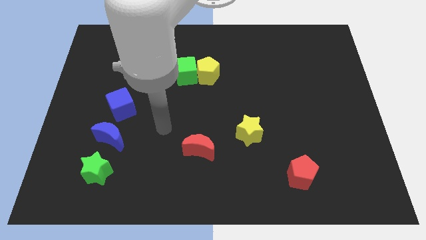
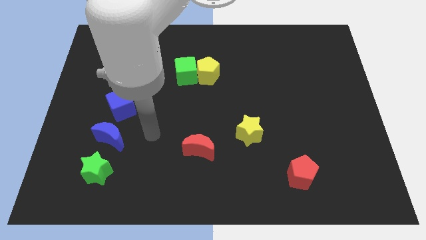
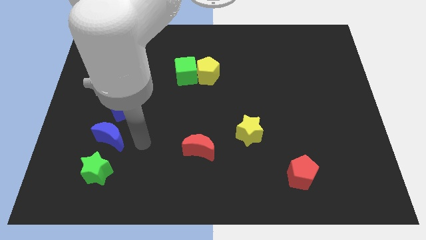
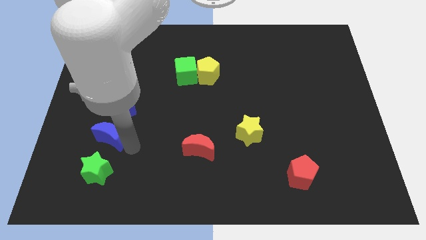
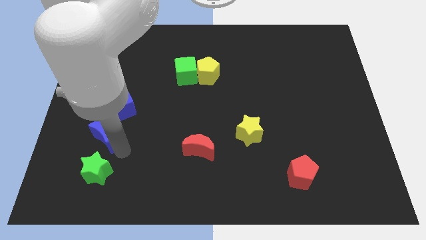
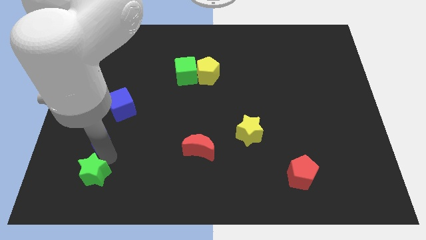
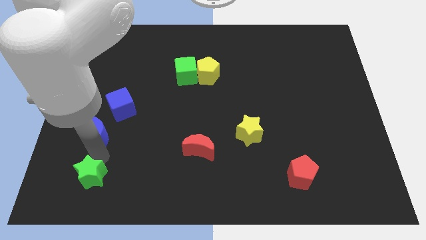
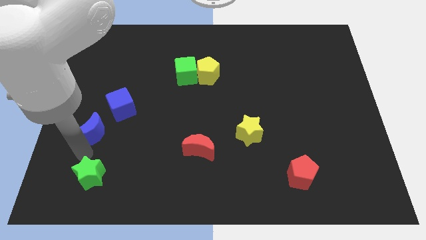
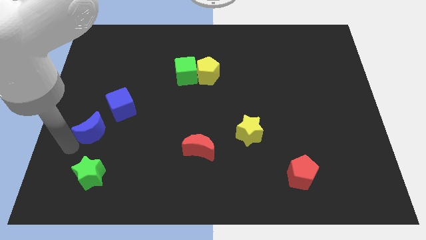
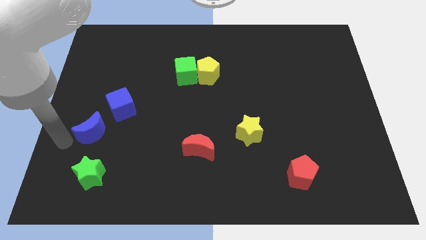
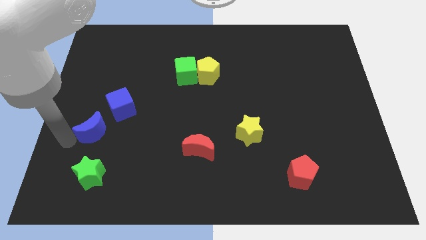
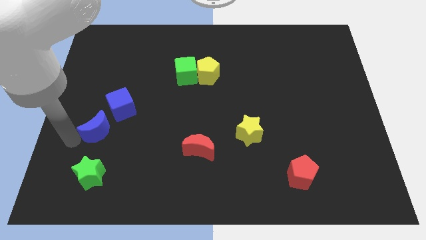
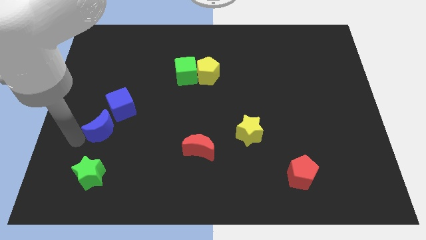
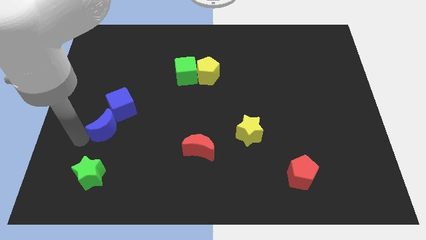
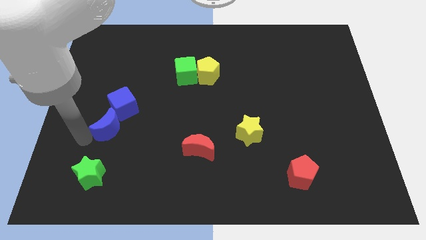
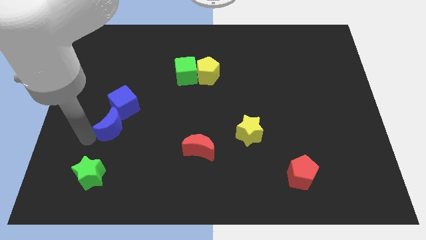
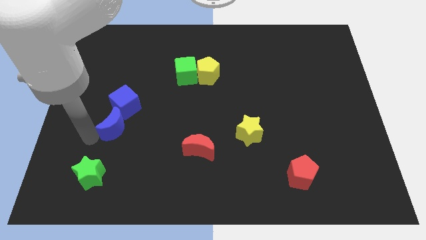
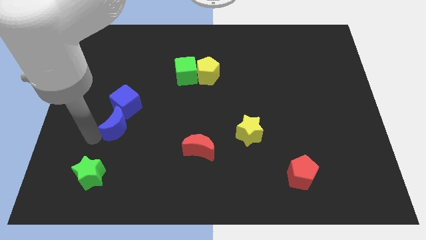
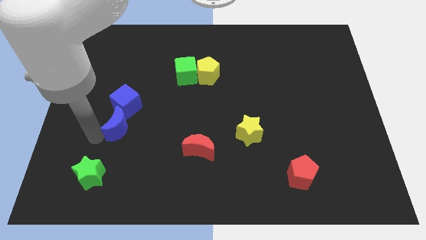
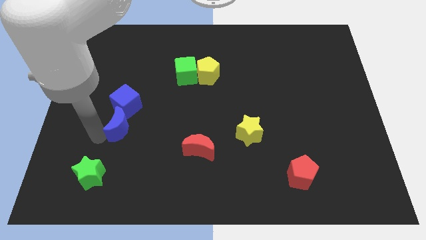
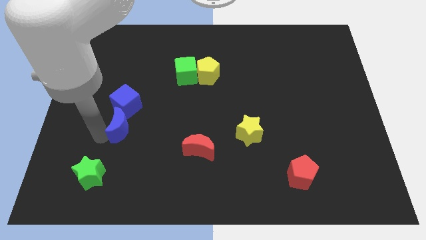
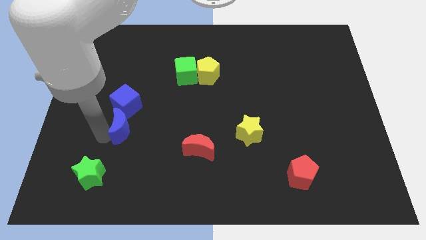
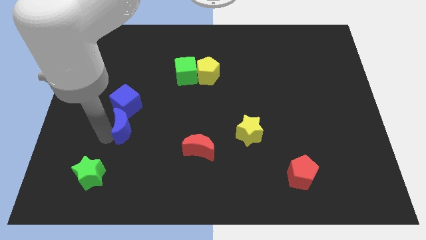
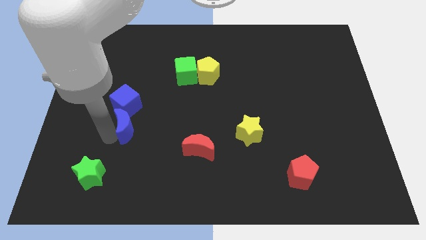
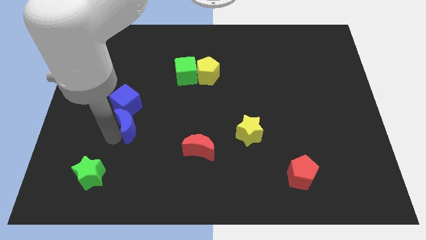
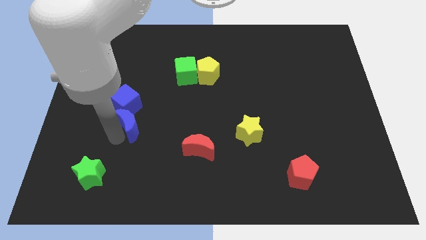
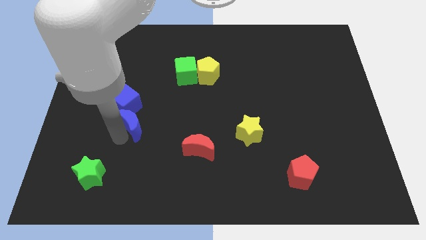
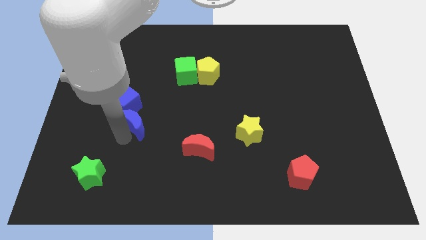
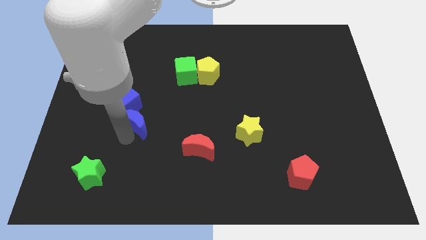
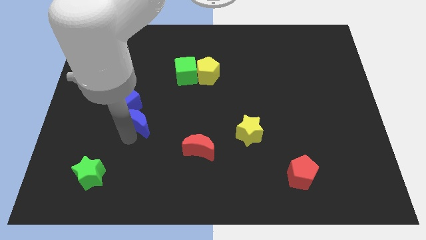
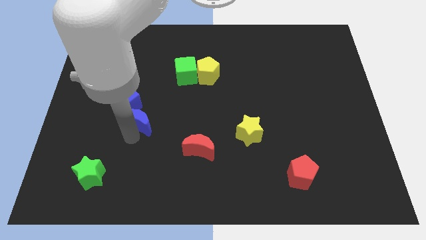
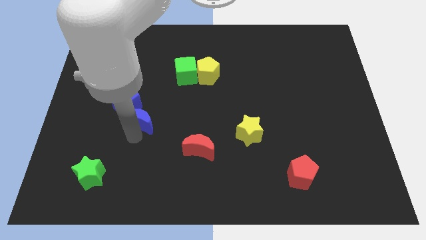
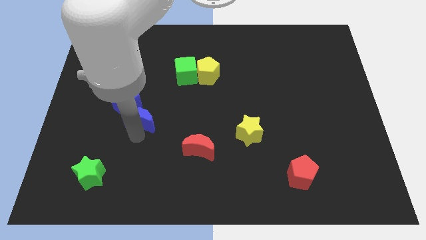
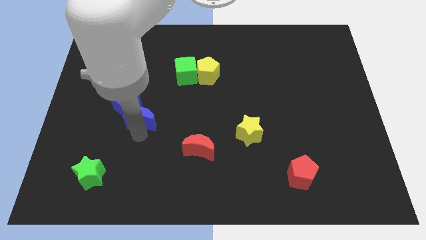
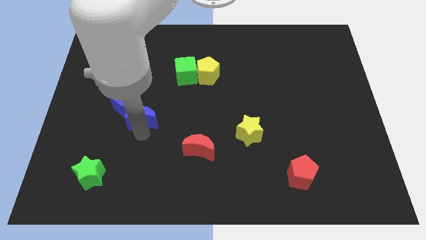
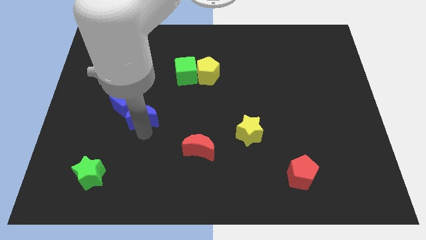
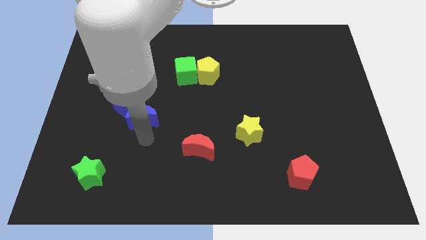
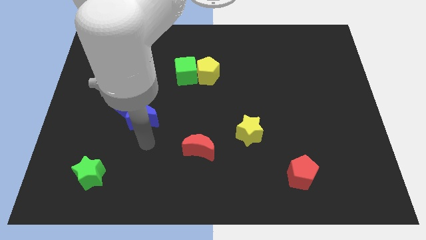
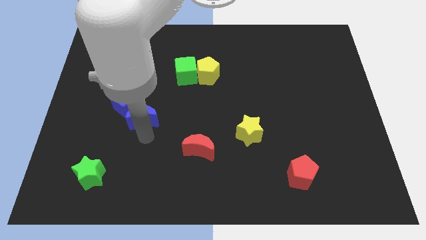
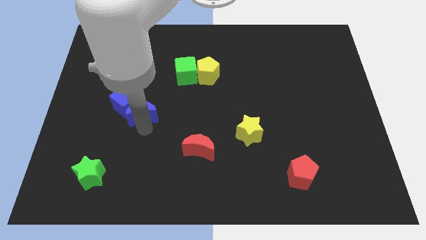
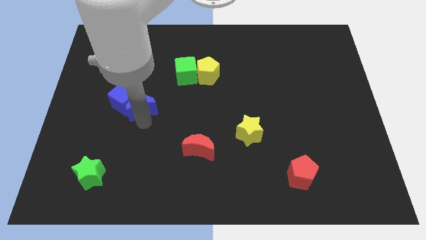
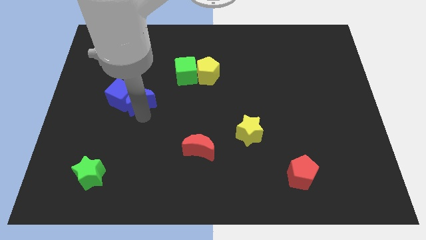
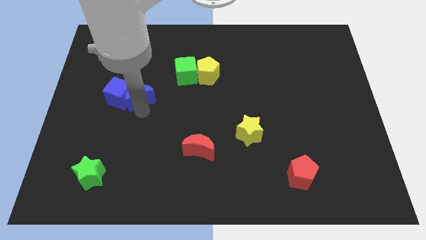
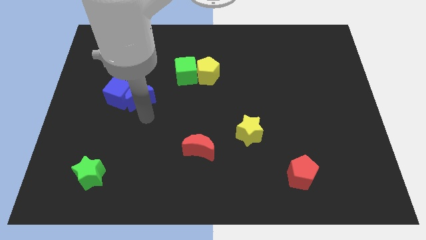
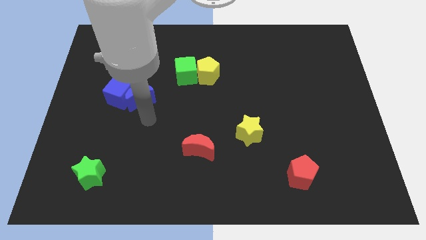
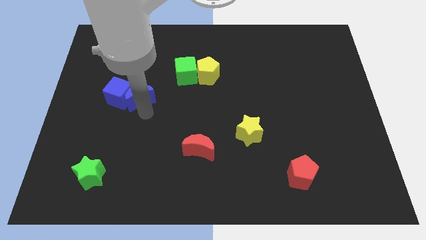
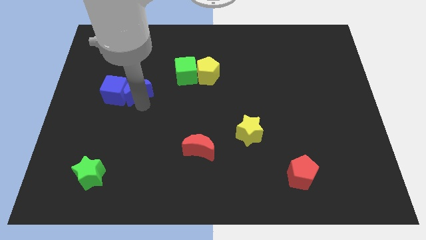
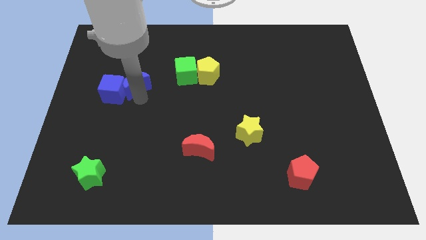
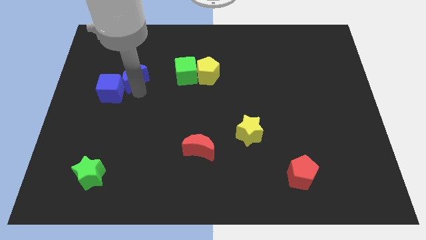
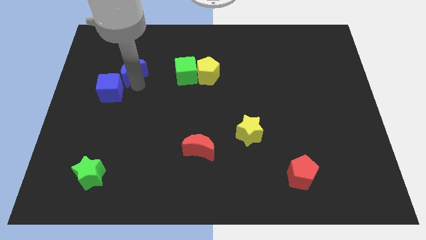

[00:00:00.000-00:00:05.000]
put the blue moon to the top of the blue cube

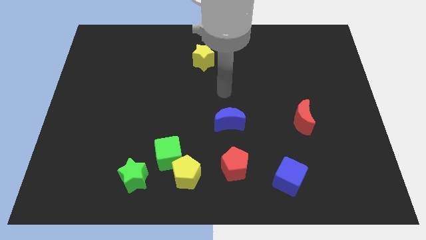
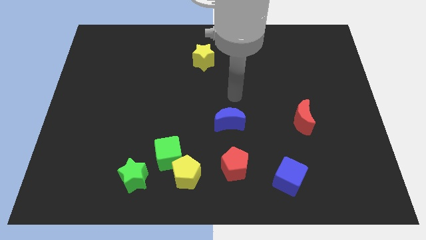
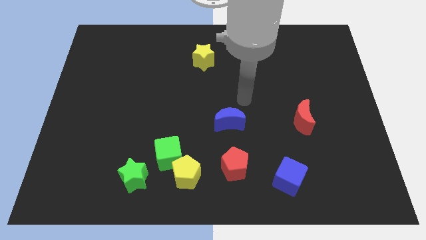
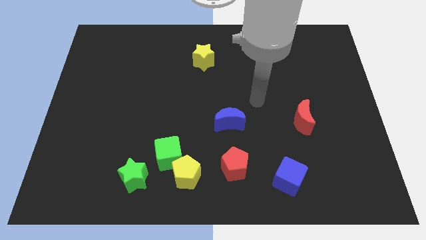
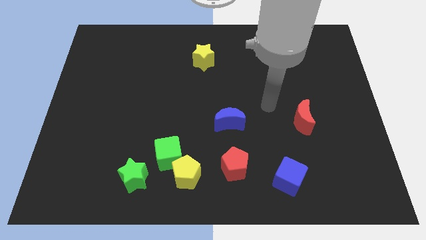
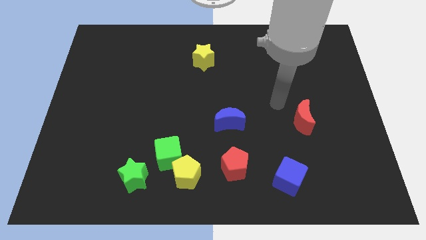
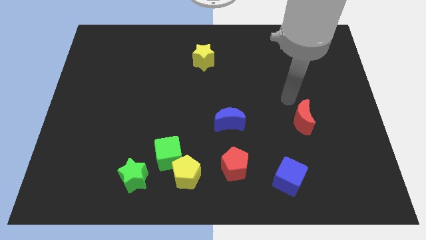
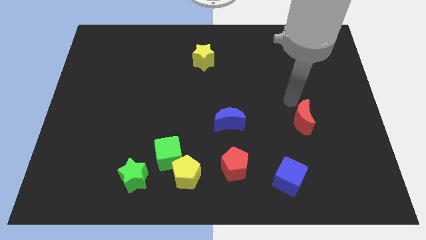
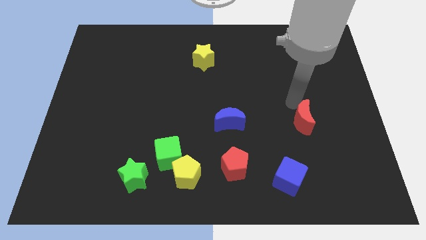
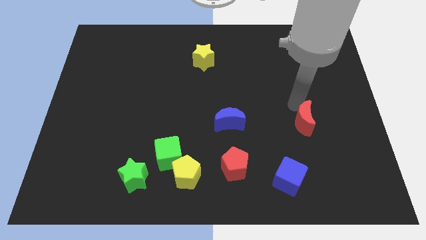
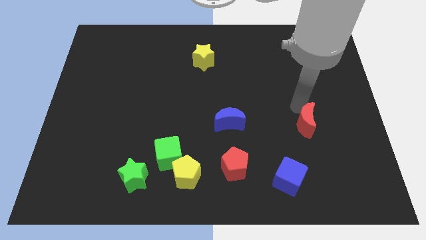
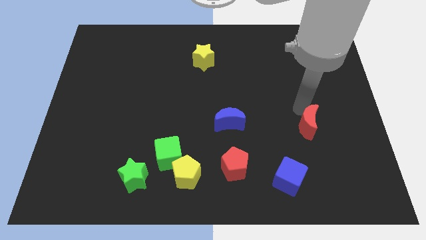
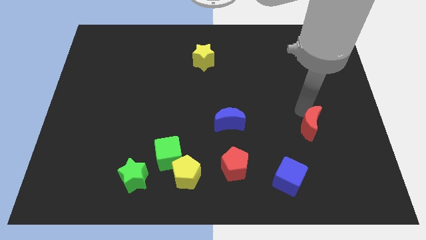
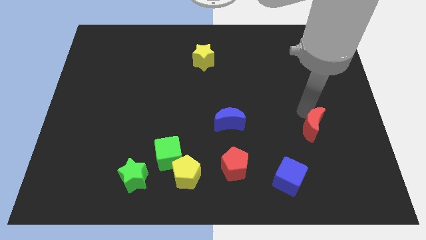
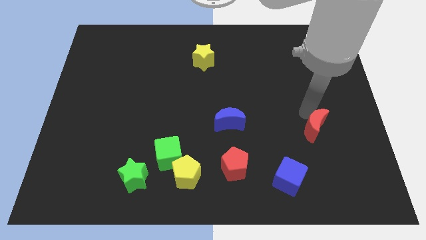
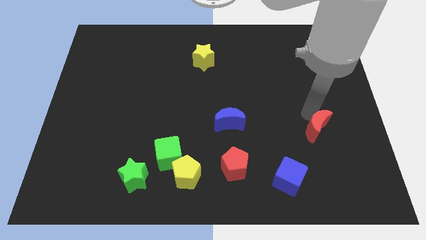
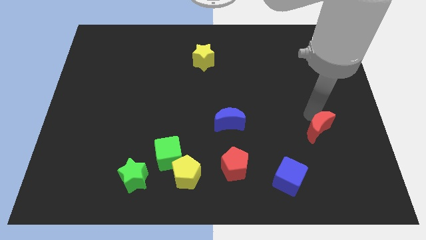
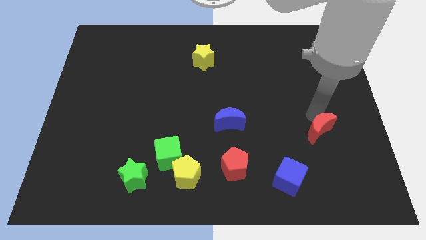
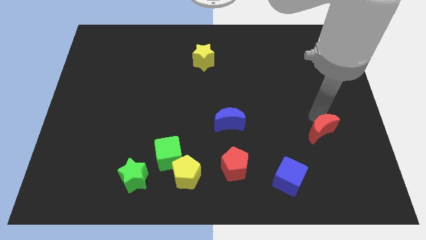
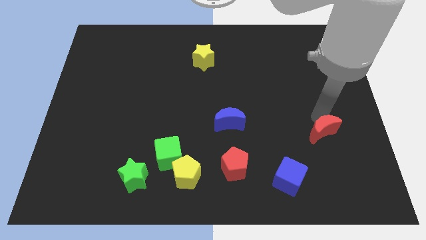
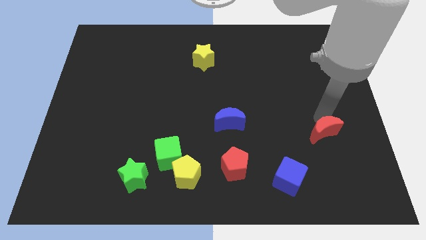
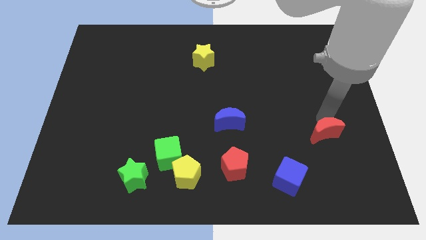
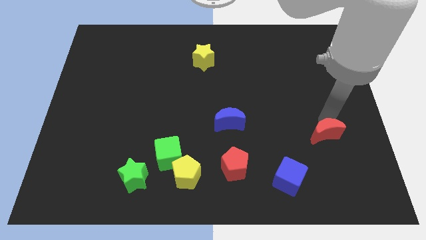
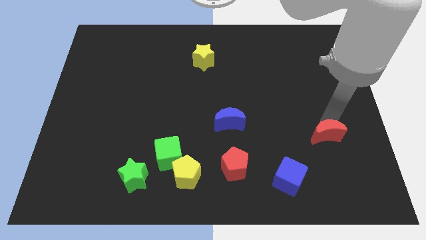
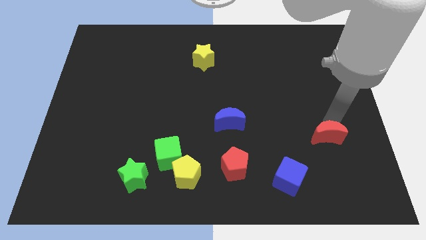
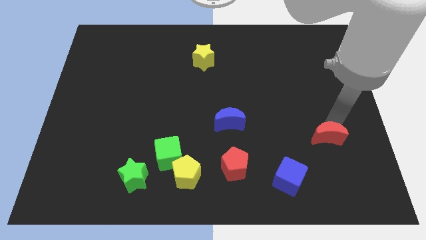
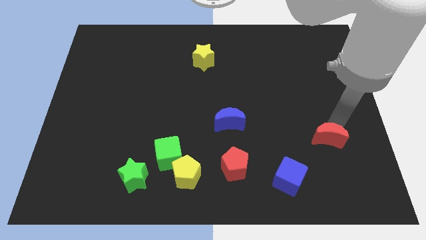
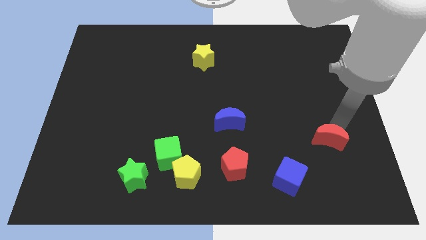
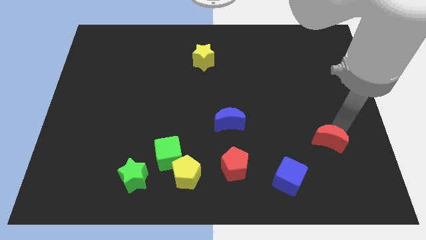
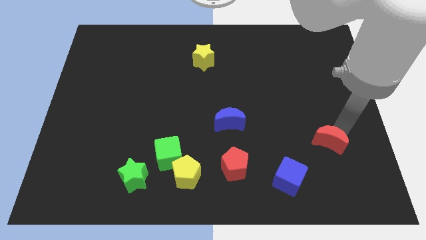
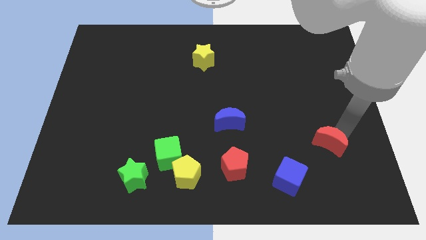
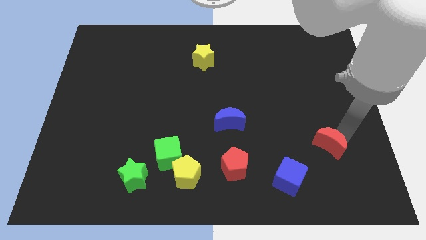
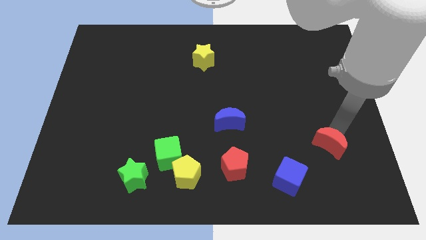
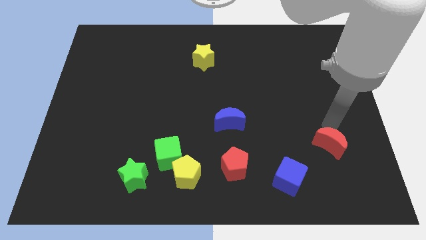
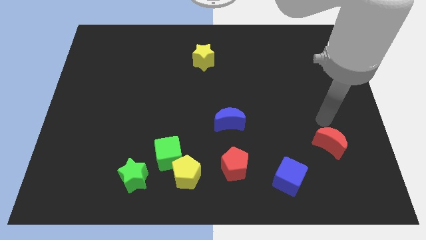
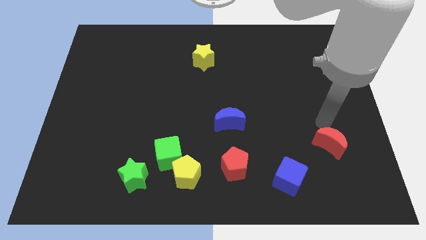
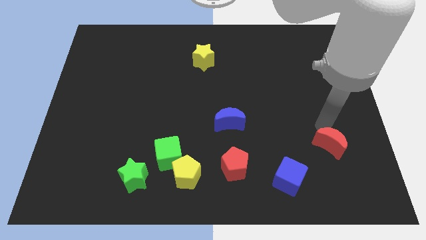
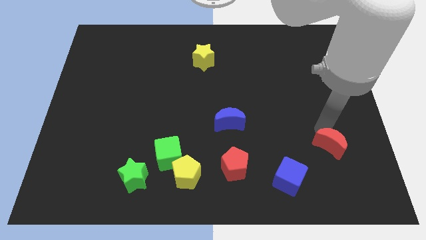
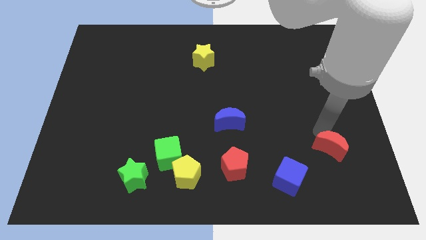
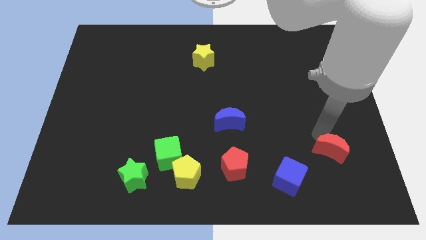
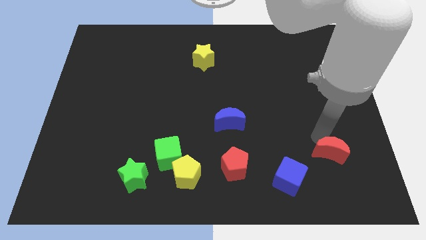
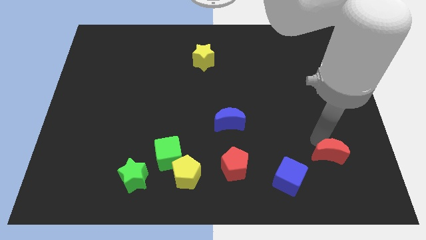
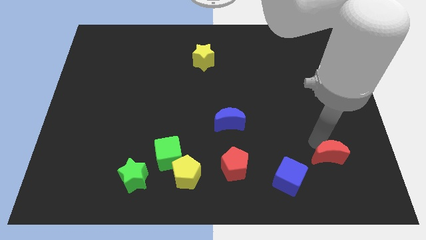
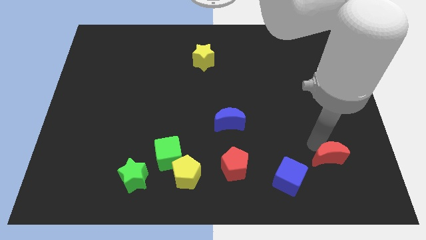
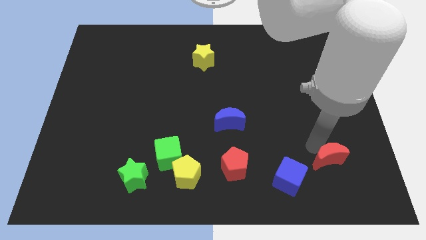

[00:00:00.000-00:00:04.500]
put the red moon right of the blue cube
